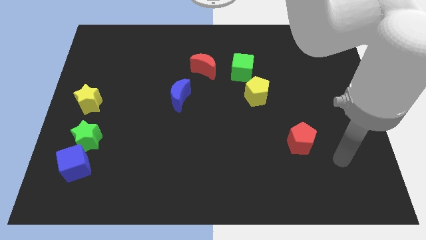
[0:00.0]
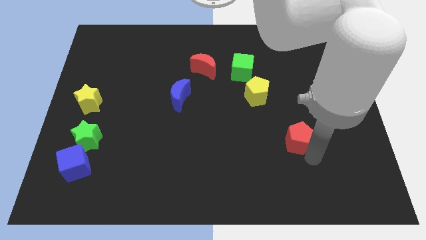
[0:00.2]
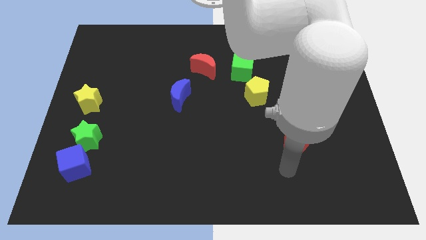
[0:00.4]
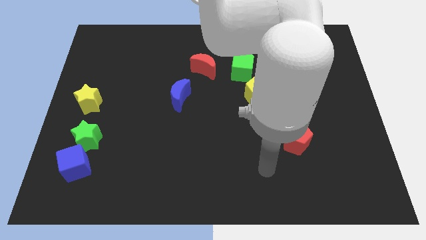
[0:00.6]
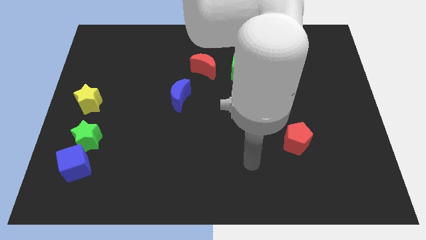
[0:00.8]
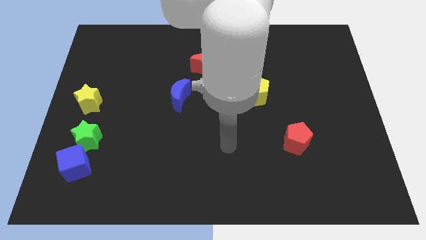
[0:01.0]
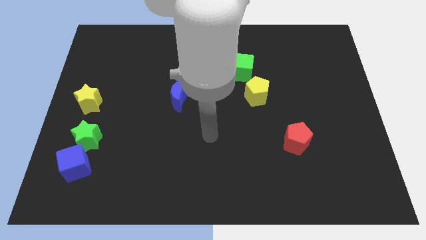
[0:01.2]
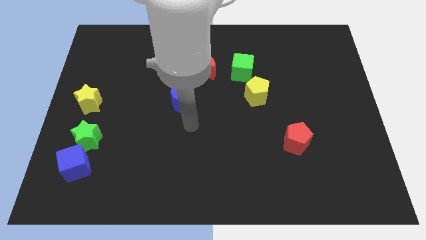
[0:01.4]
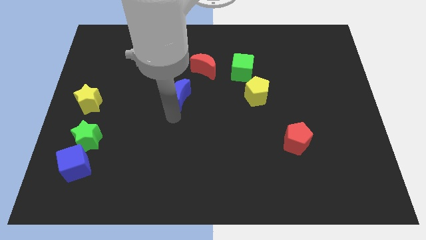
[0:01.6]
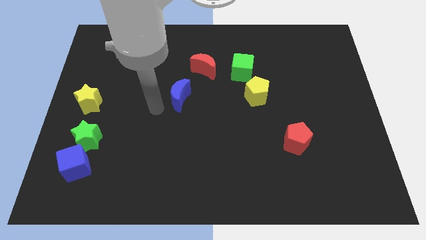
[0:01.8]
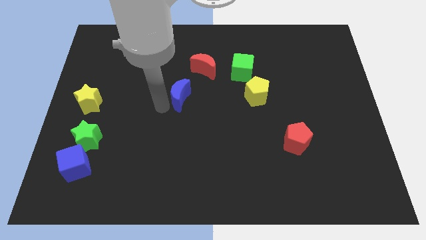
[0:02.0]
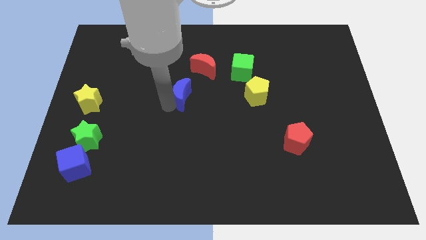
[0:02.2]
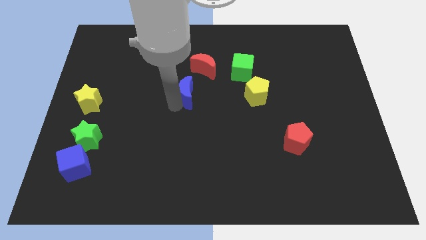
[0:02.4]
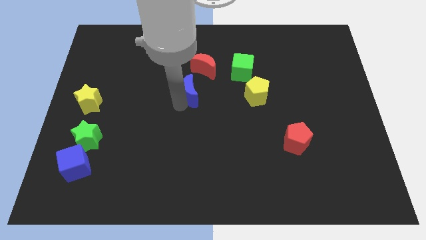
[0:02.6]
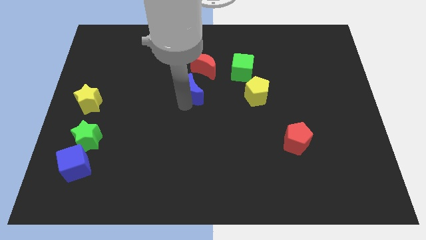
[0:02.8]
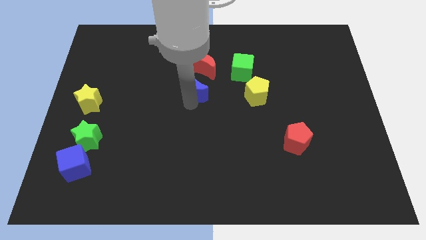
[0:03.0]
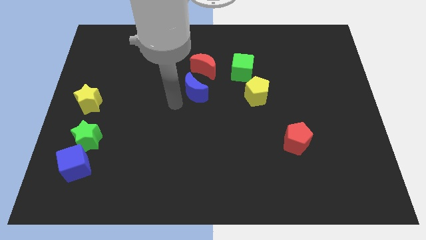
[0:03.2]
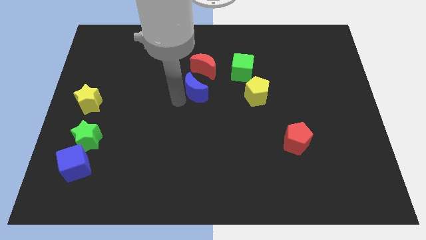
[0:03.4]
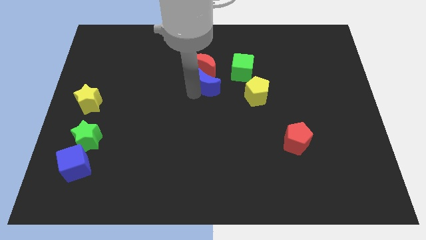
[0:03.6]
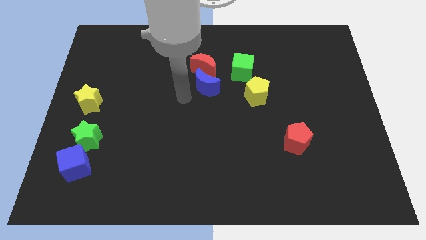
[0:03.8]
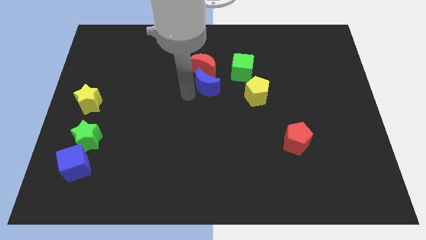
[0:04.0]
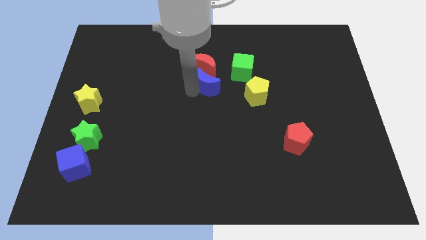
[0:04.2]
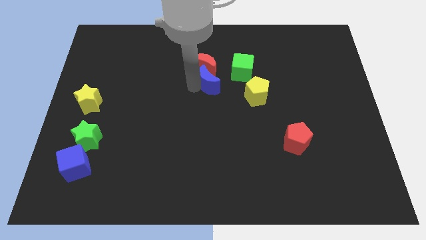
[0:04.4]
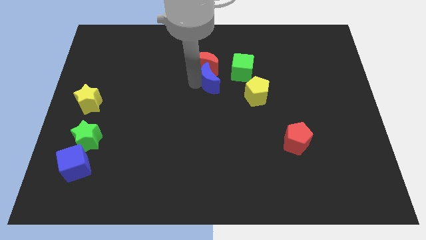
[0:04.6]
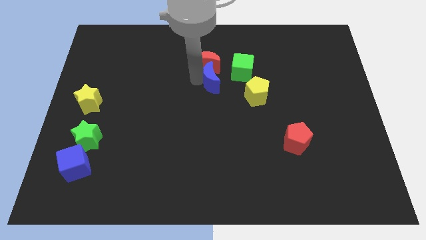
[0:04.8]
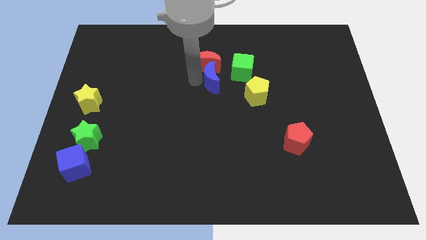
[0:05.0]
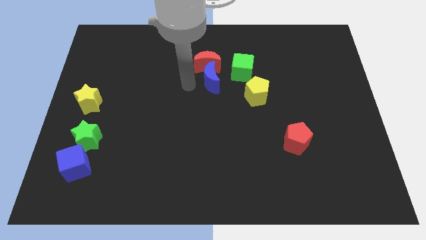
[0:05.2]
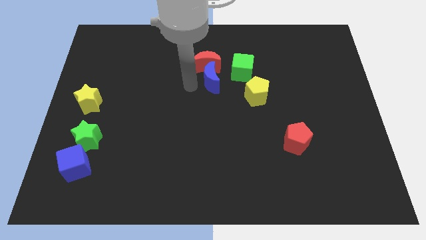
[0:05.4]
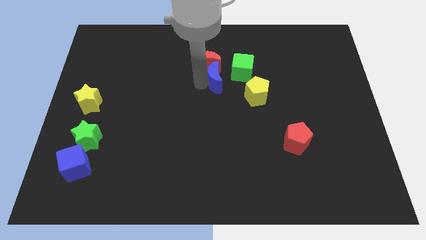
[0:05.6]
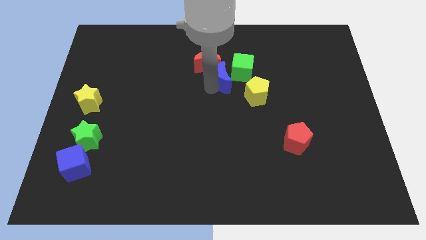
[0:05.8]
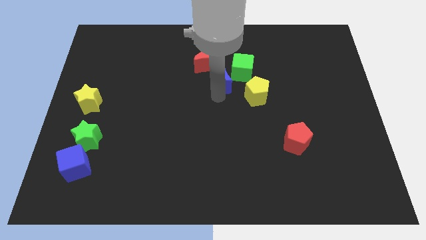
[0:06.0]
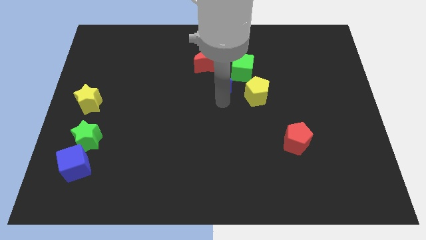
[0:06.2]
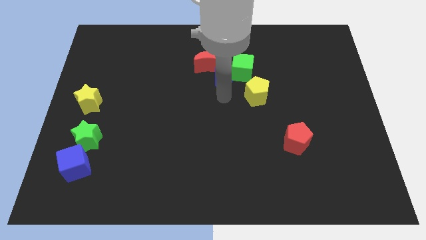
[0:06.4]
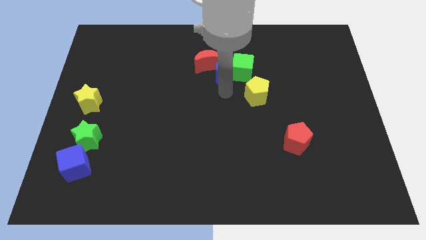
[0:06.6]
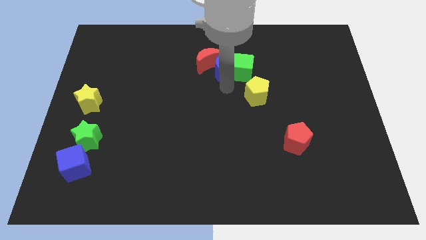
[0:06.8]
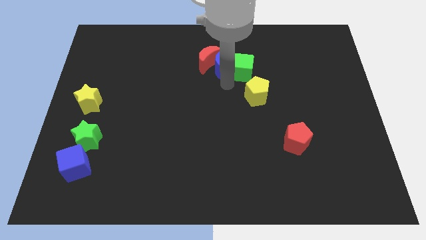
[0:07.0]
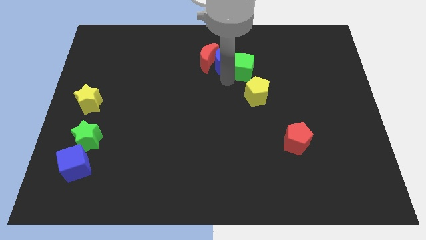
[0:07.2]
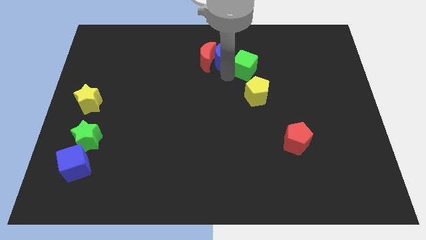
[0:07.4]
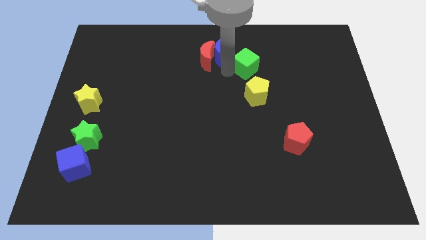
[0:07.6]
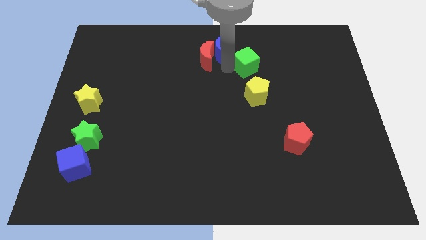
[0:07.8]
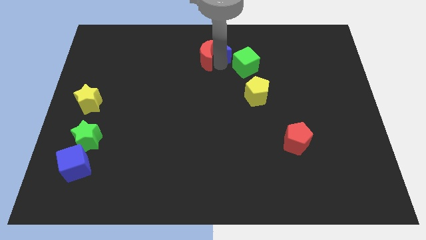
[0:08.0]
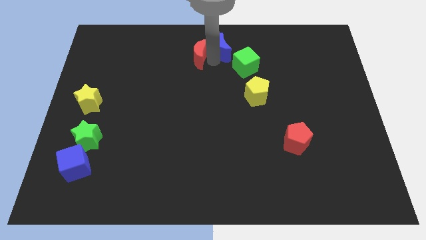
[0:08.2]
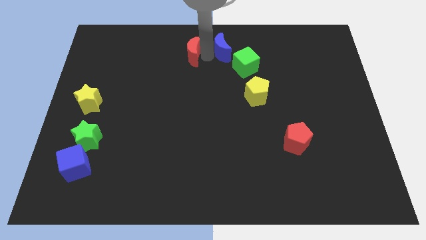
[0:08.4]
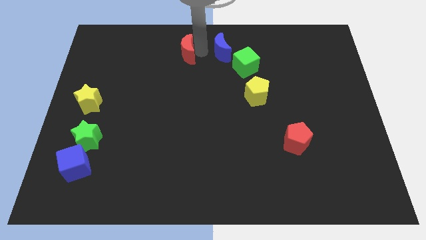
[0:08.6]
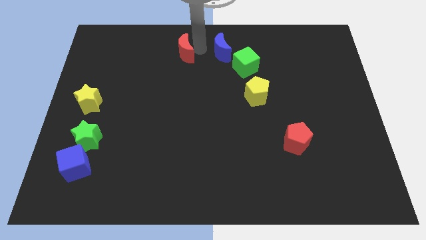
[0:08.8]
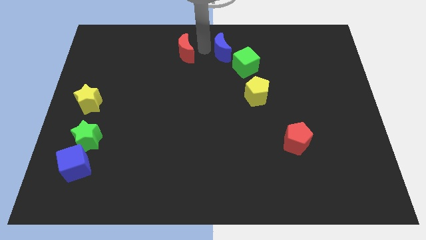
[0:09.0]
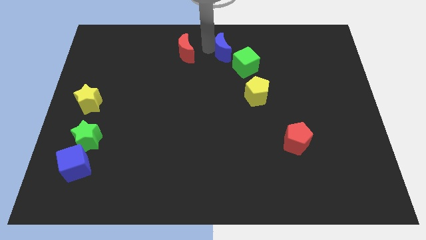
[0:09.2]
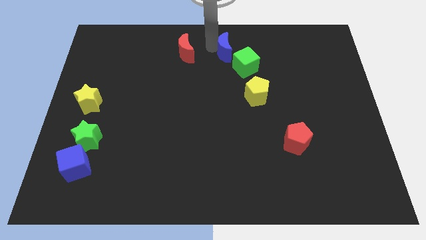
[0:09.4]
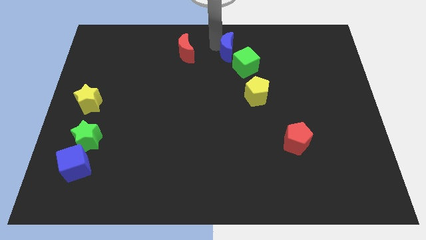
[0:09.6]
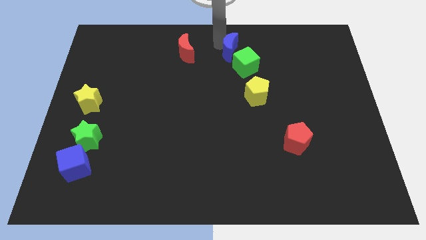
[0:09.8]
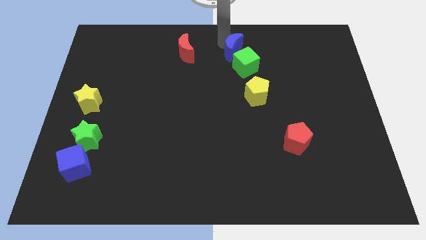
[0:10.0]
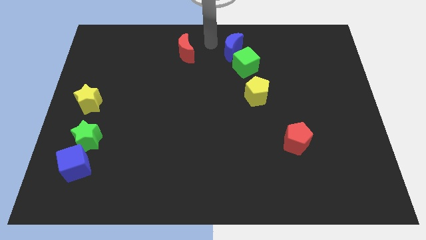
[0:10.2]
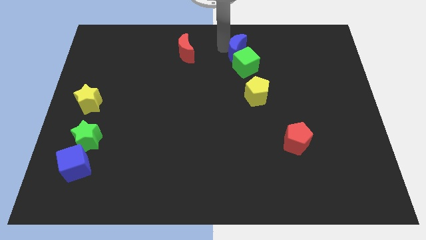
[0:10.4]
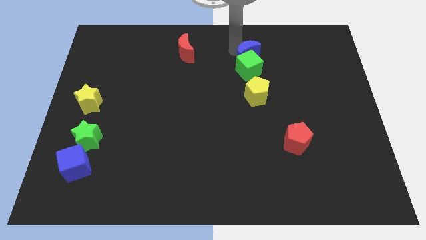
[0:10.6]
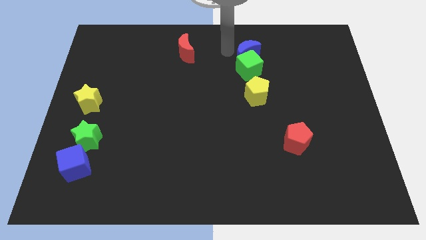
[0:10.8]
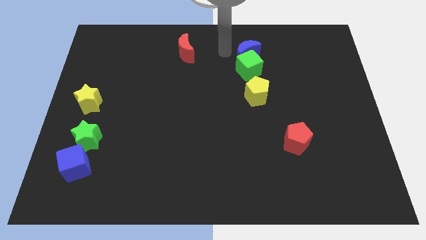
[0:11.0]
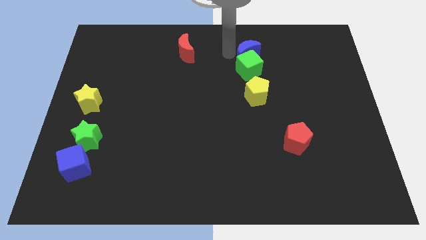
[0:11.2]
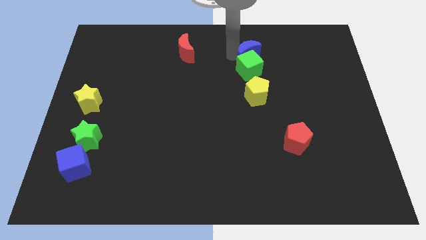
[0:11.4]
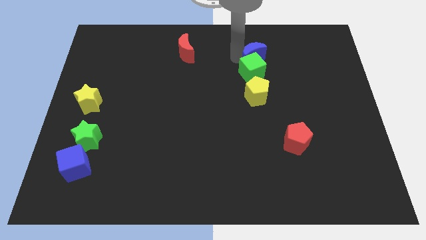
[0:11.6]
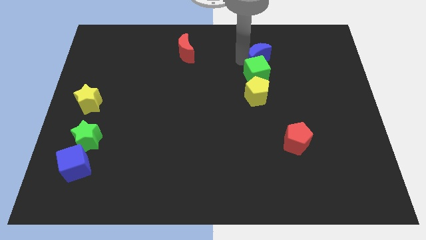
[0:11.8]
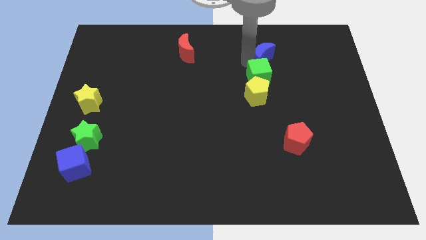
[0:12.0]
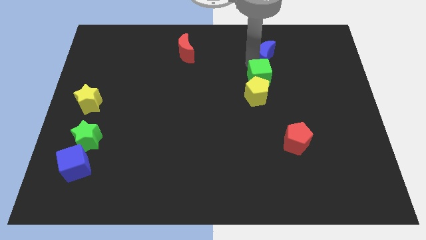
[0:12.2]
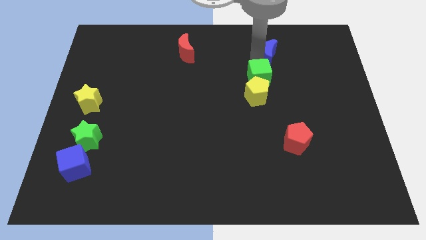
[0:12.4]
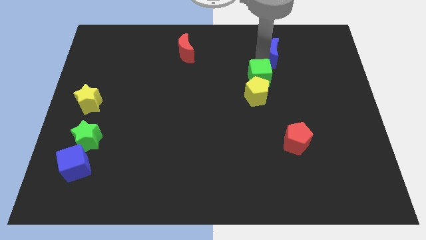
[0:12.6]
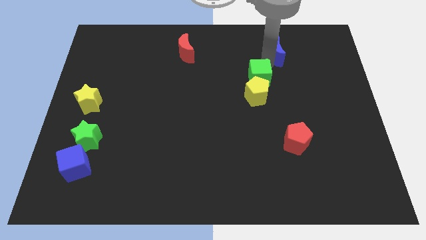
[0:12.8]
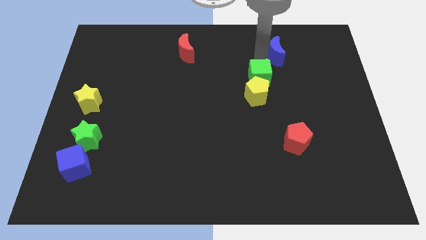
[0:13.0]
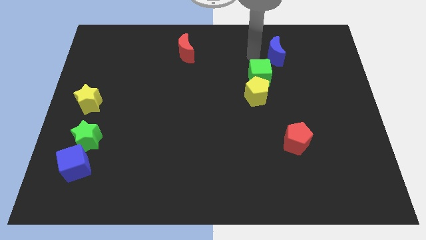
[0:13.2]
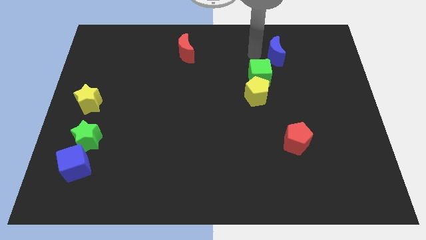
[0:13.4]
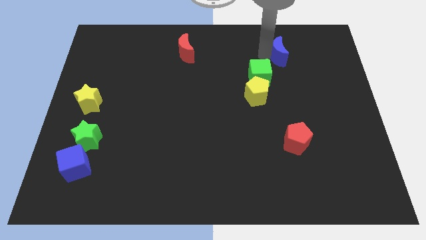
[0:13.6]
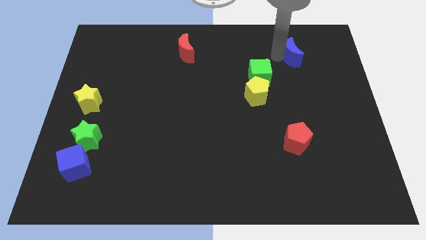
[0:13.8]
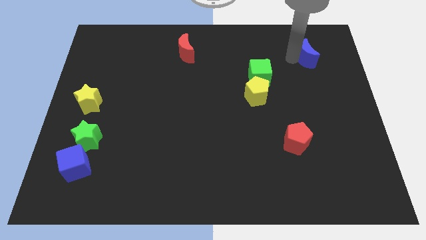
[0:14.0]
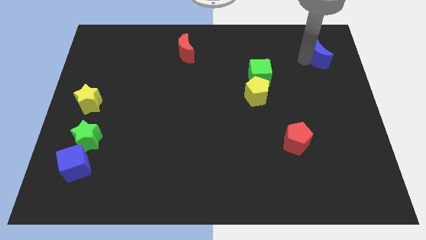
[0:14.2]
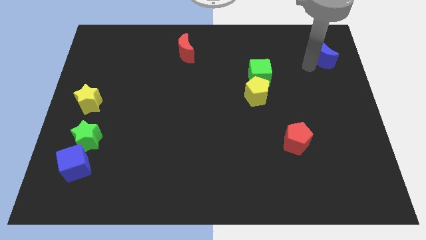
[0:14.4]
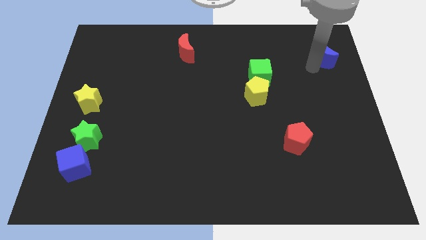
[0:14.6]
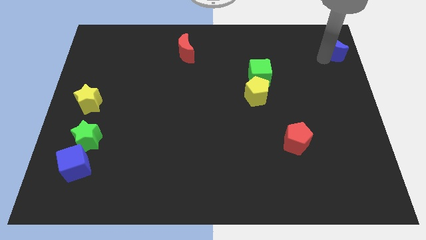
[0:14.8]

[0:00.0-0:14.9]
put the blue moon to the upper right corner
